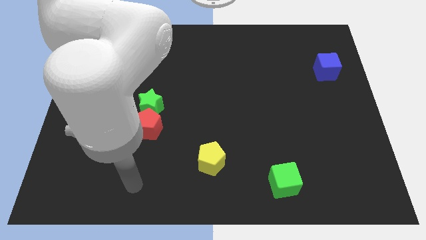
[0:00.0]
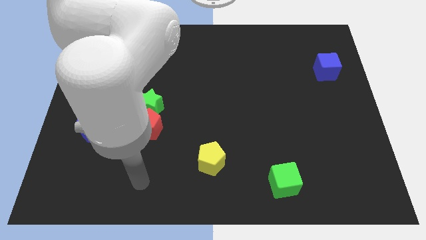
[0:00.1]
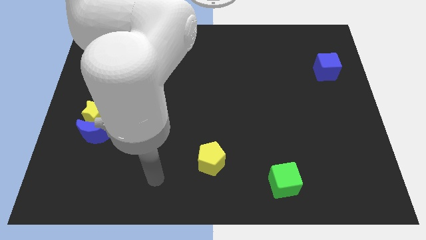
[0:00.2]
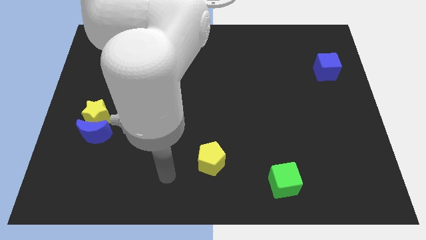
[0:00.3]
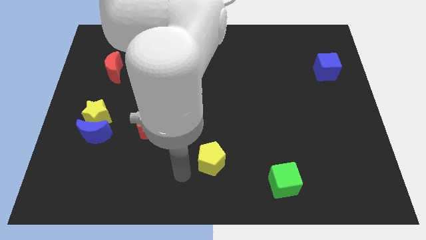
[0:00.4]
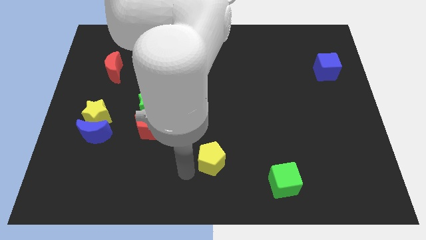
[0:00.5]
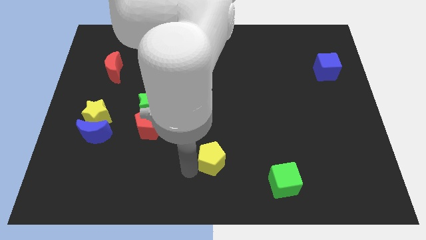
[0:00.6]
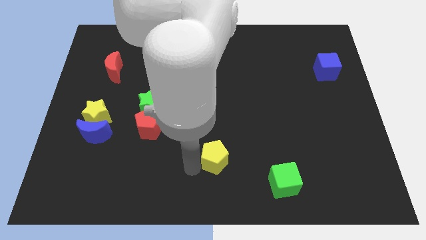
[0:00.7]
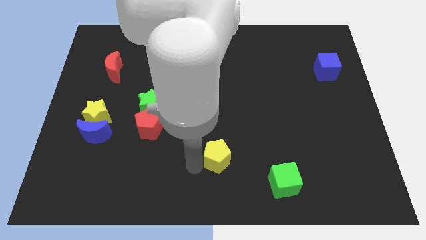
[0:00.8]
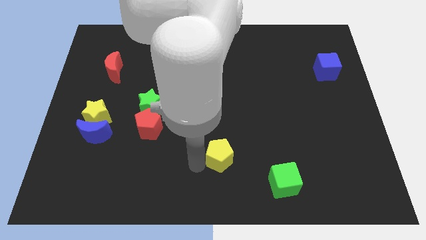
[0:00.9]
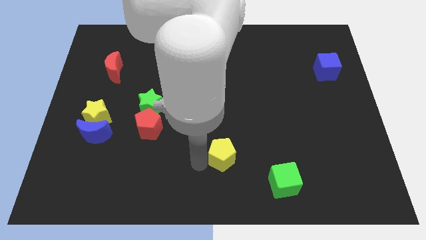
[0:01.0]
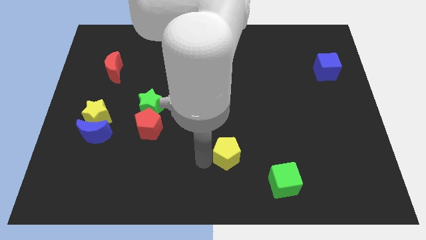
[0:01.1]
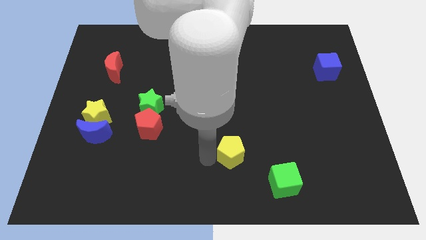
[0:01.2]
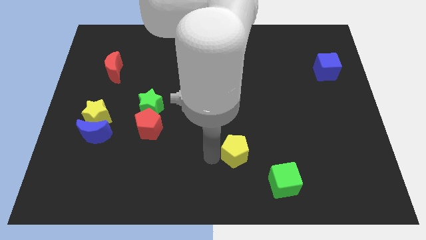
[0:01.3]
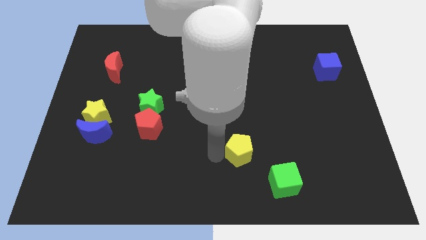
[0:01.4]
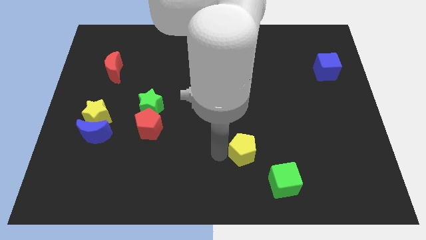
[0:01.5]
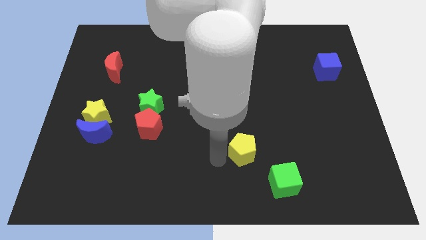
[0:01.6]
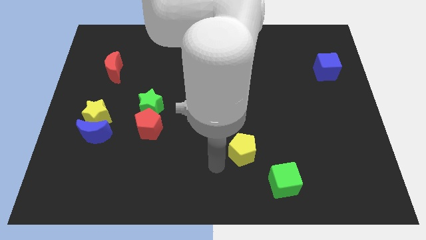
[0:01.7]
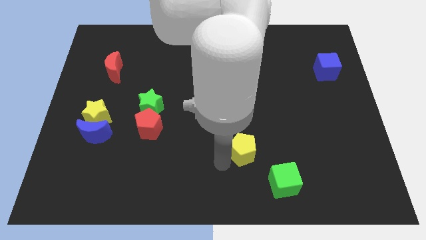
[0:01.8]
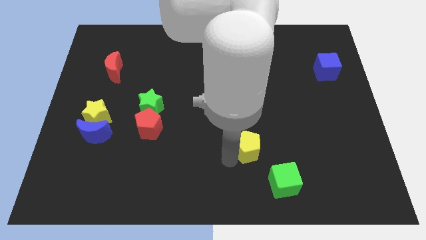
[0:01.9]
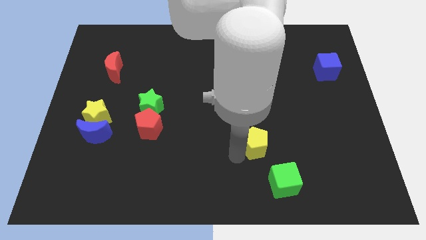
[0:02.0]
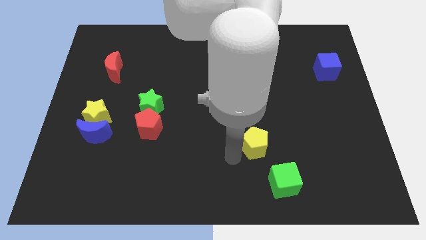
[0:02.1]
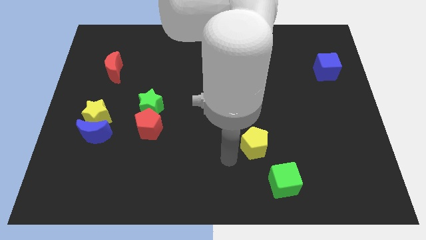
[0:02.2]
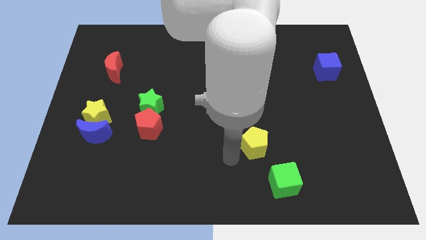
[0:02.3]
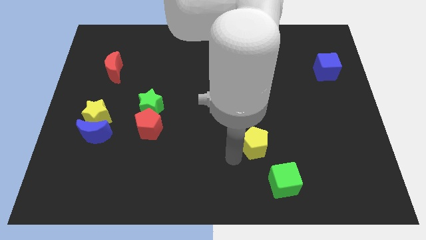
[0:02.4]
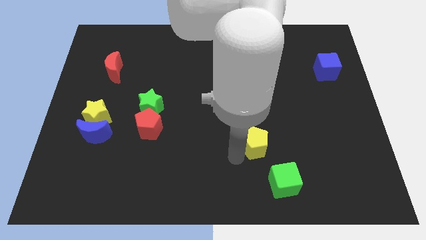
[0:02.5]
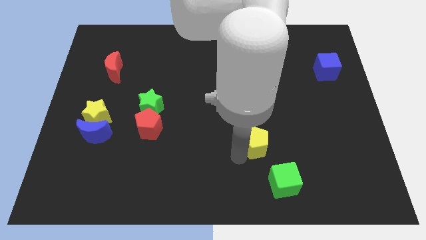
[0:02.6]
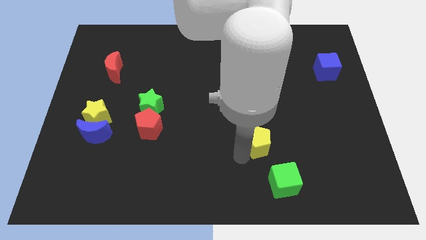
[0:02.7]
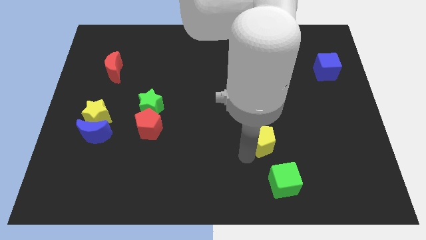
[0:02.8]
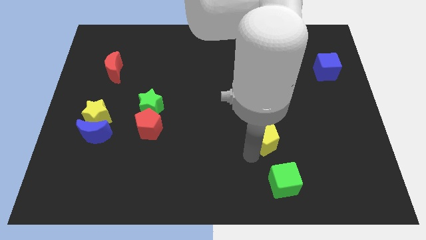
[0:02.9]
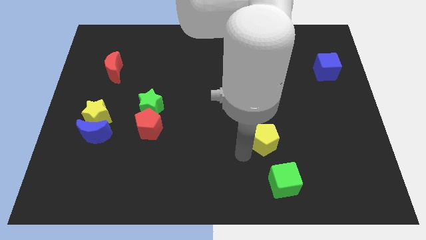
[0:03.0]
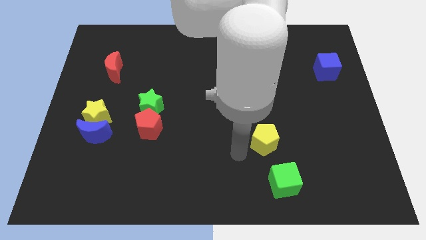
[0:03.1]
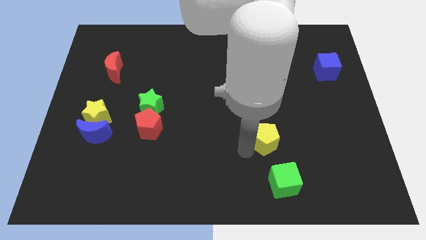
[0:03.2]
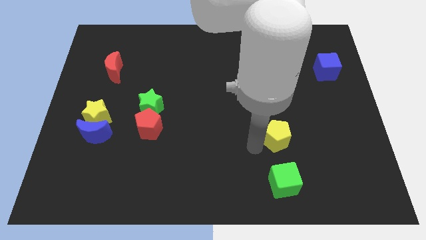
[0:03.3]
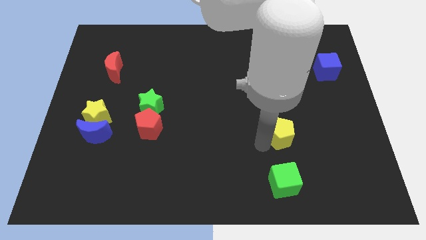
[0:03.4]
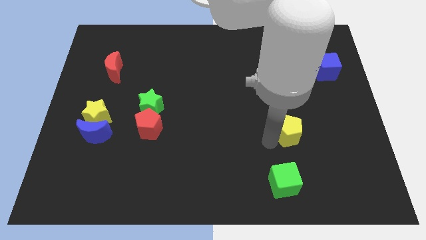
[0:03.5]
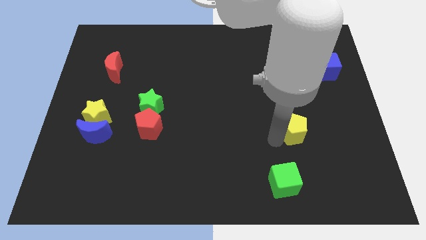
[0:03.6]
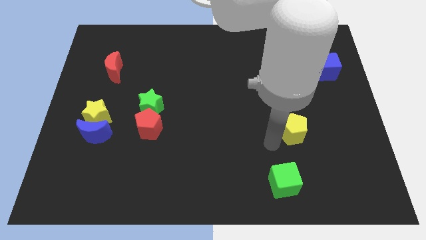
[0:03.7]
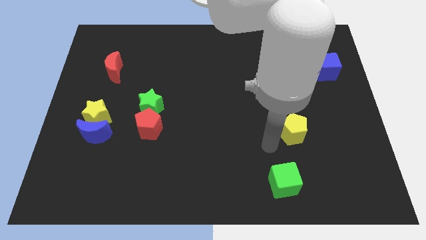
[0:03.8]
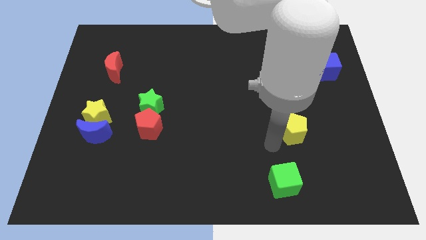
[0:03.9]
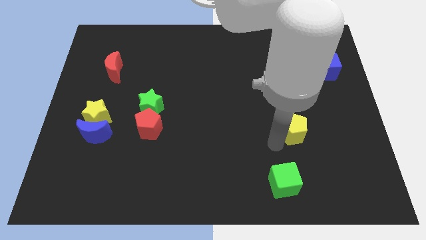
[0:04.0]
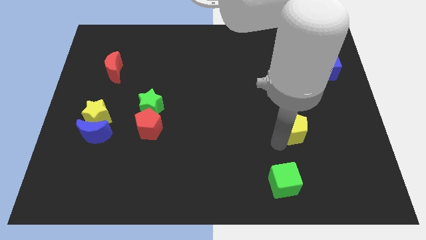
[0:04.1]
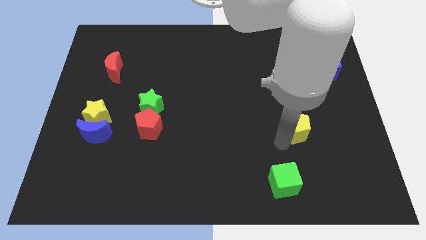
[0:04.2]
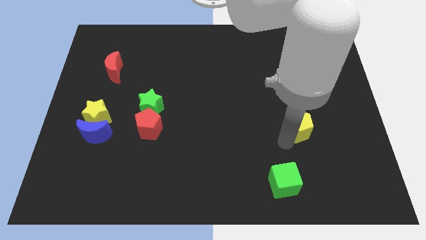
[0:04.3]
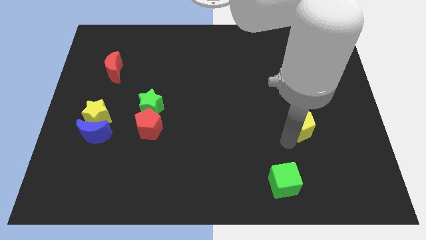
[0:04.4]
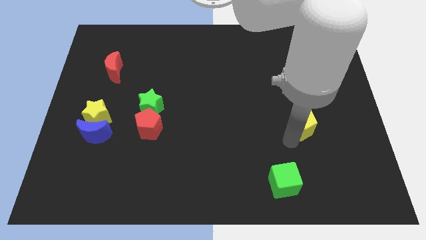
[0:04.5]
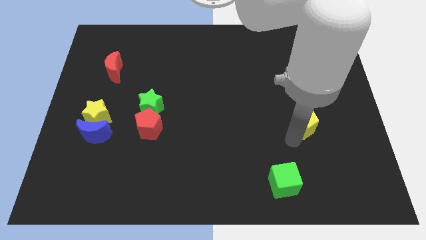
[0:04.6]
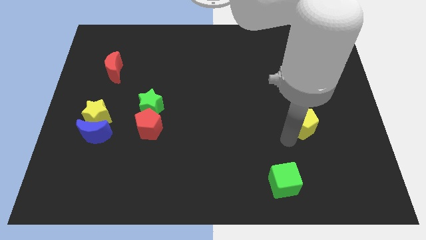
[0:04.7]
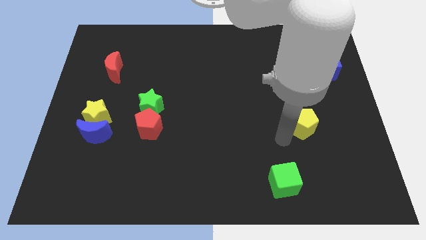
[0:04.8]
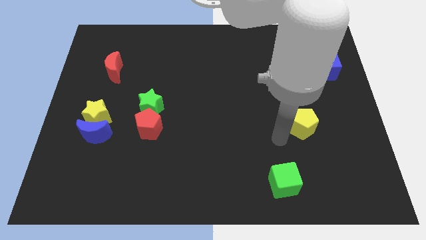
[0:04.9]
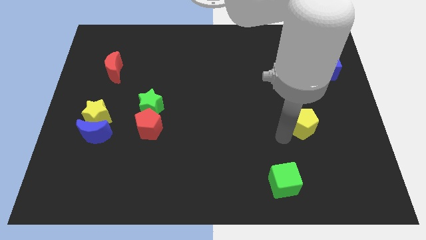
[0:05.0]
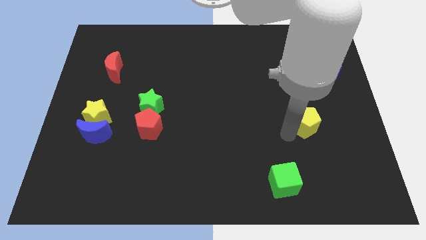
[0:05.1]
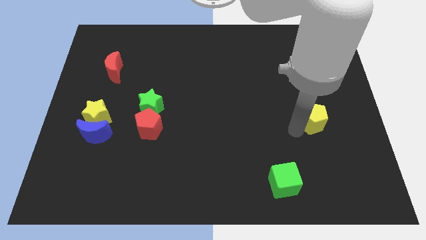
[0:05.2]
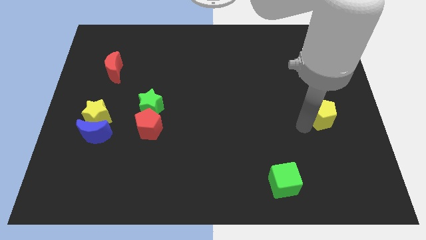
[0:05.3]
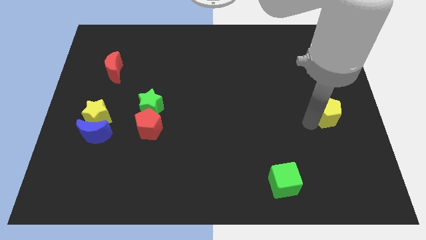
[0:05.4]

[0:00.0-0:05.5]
slide the yellow pentagon to the center right

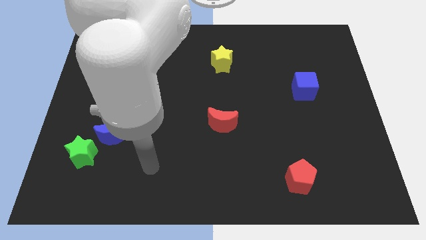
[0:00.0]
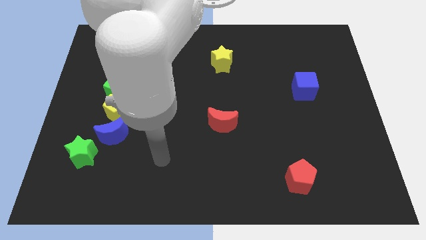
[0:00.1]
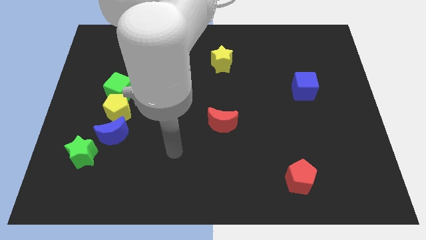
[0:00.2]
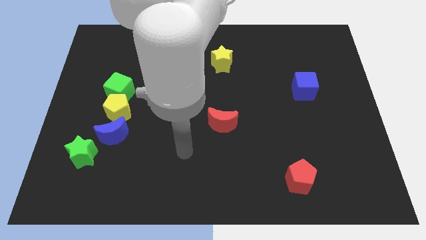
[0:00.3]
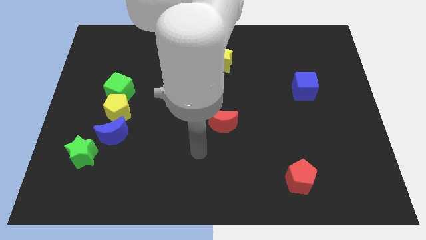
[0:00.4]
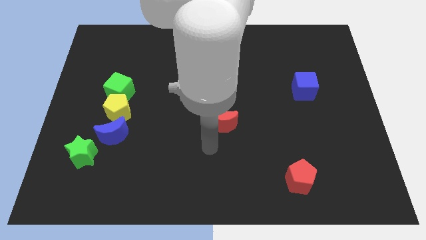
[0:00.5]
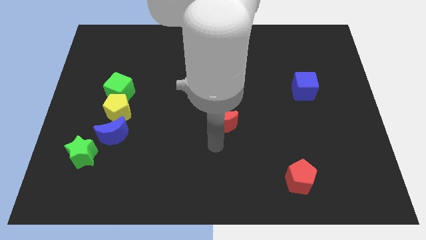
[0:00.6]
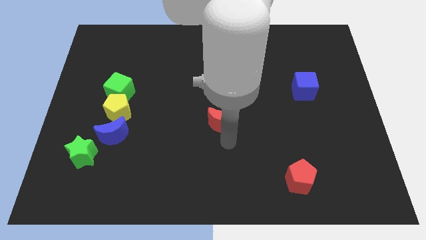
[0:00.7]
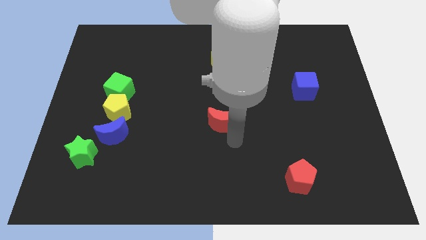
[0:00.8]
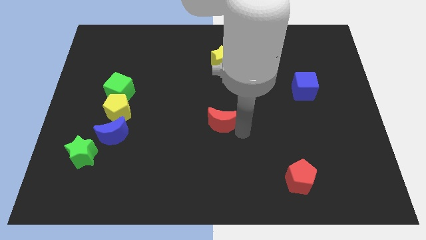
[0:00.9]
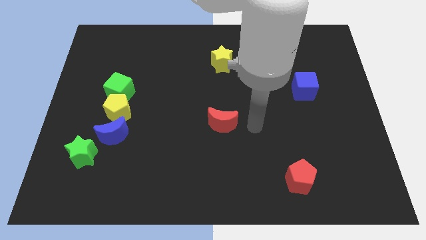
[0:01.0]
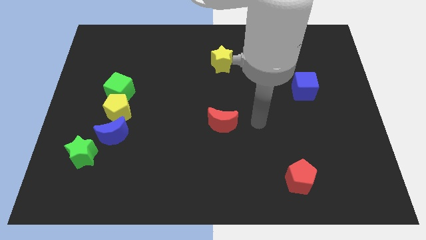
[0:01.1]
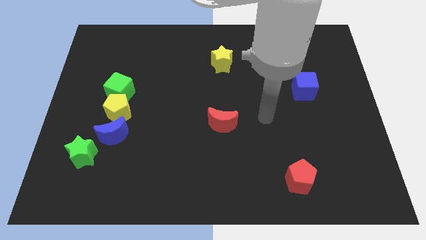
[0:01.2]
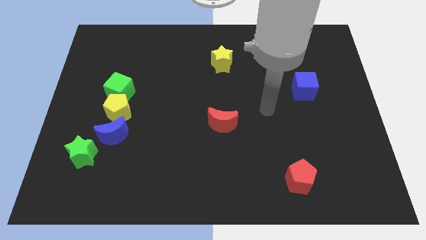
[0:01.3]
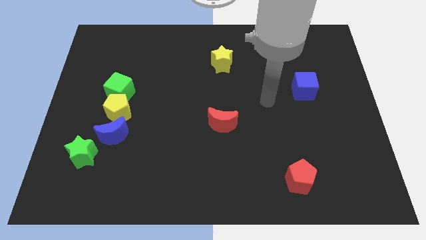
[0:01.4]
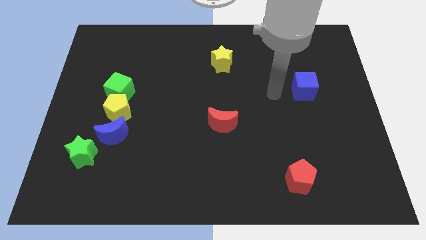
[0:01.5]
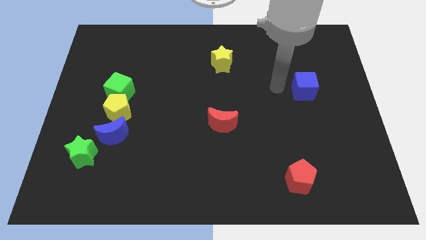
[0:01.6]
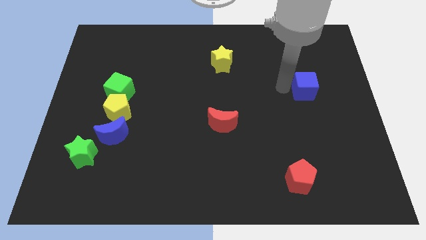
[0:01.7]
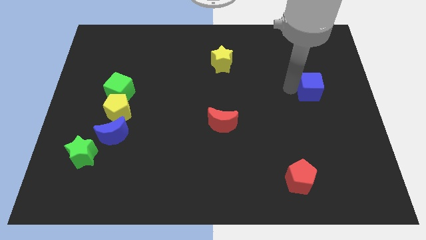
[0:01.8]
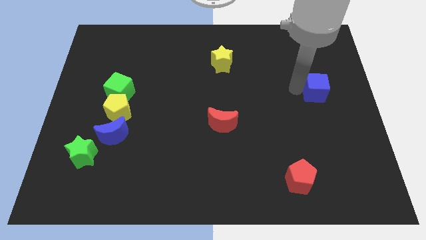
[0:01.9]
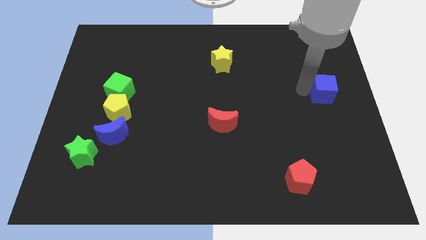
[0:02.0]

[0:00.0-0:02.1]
push the blue cube to the right side of the board
